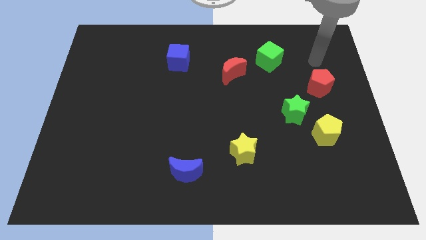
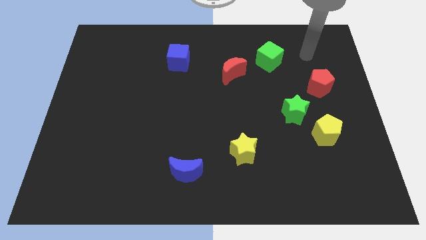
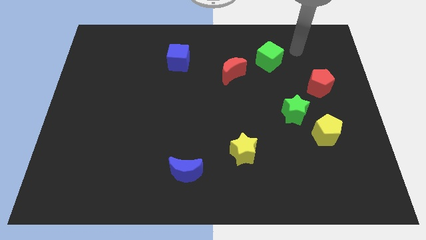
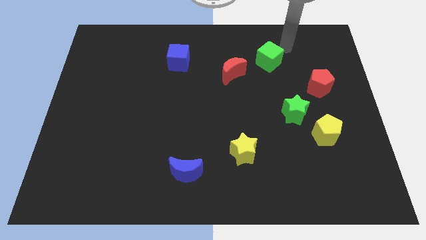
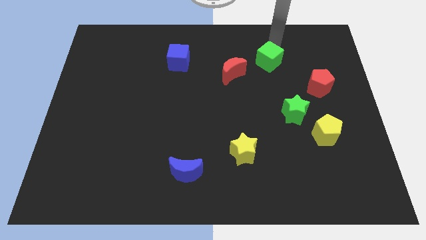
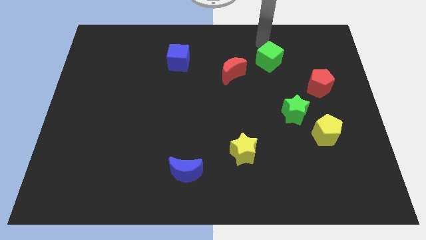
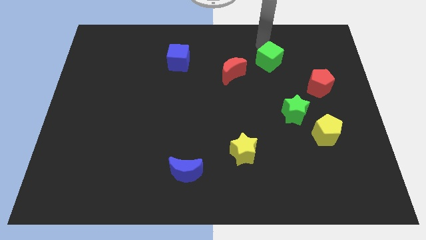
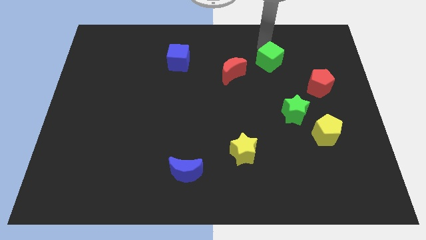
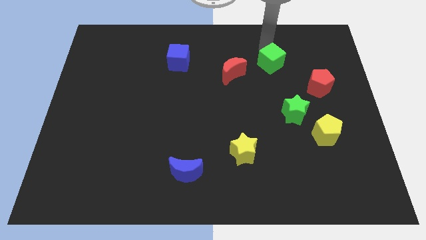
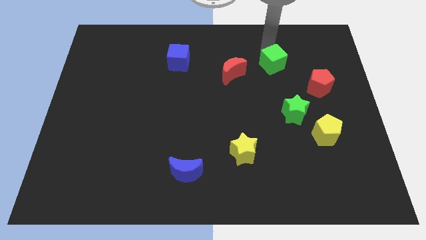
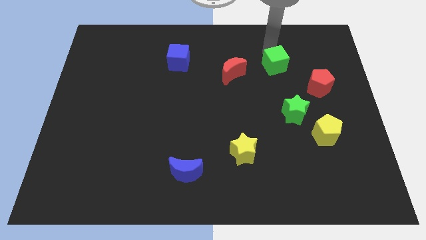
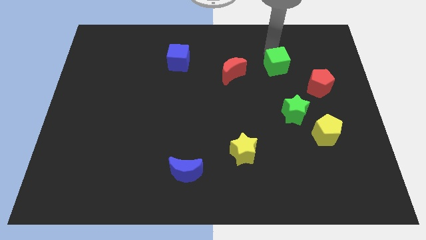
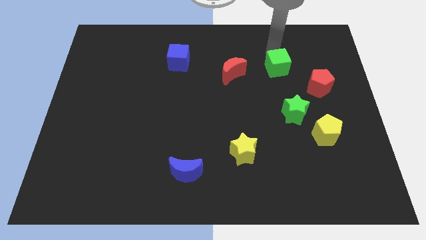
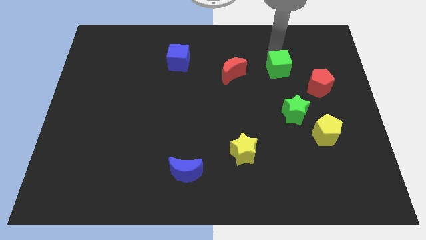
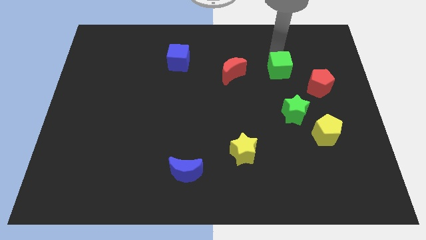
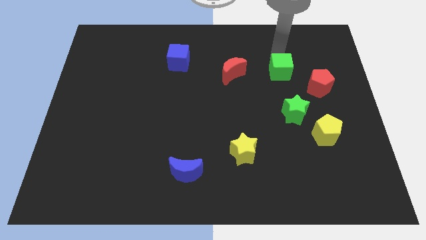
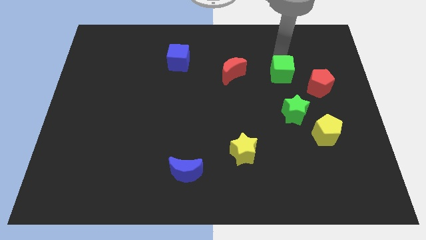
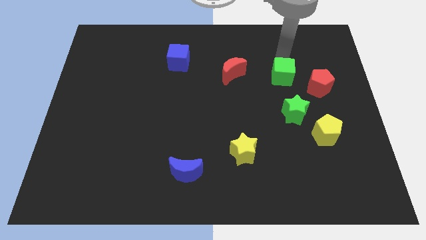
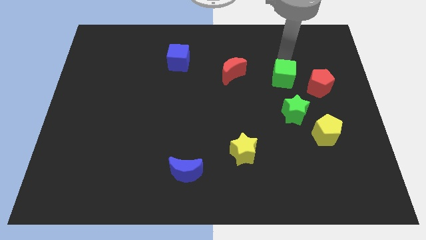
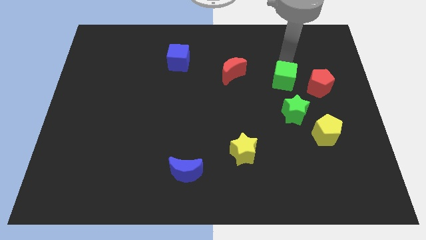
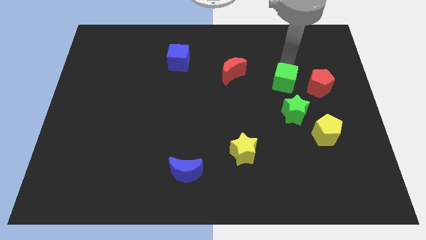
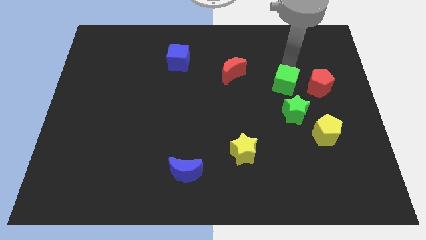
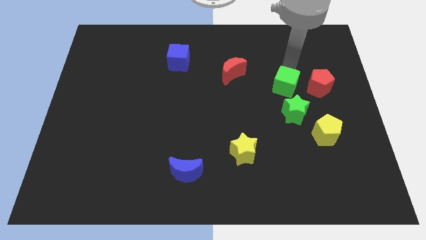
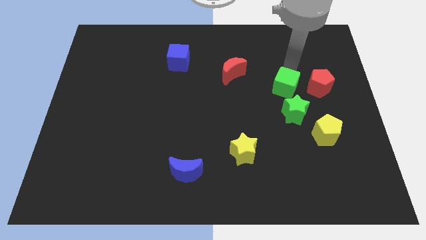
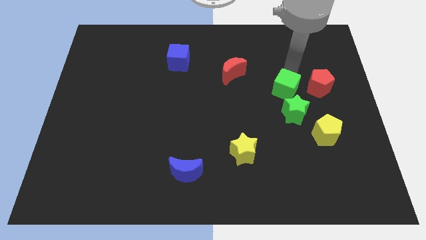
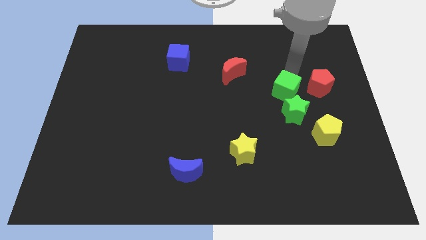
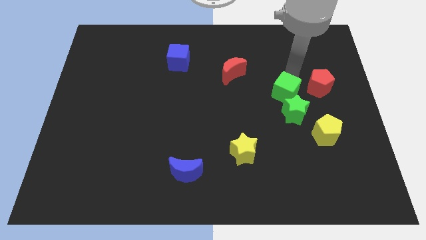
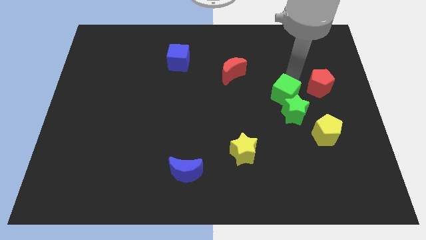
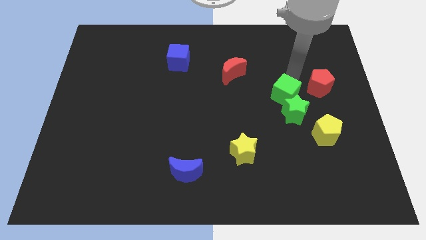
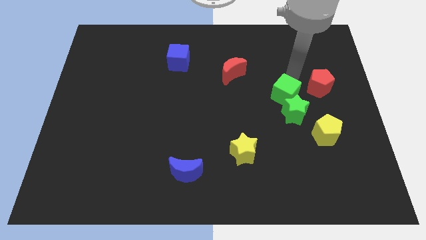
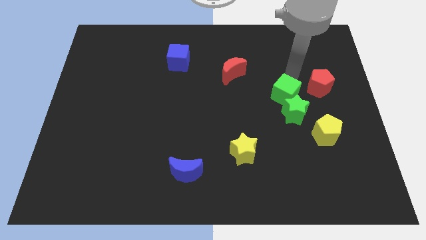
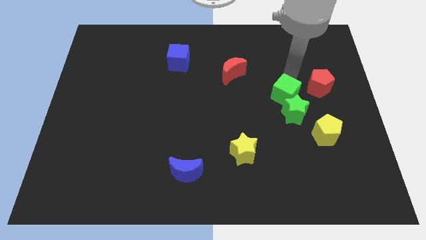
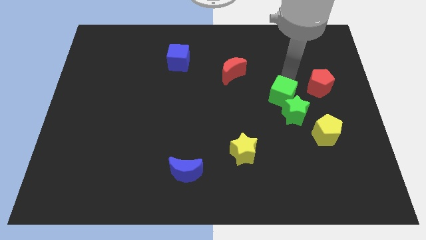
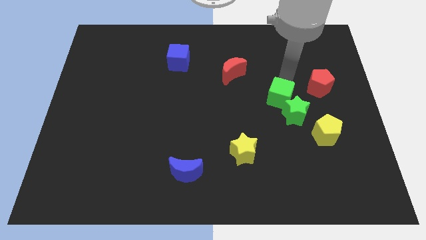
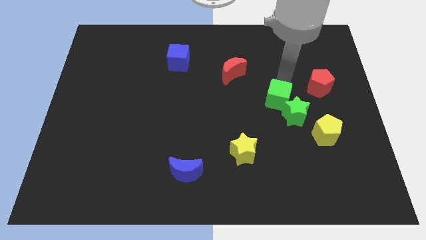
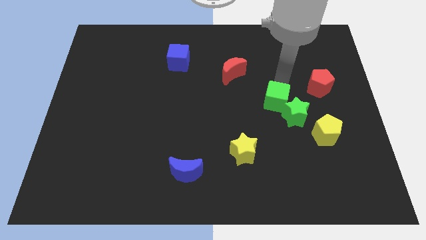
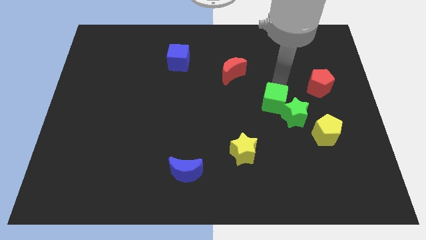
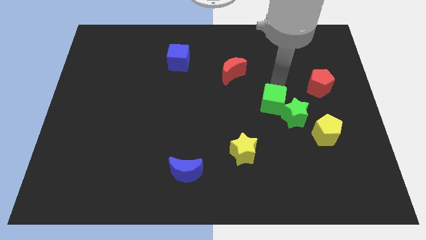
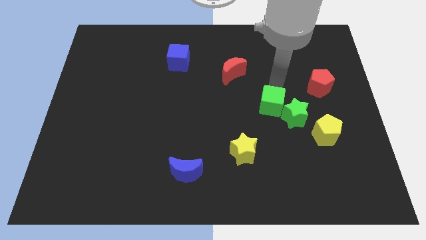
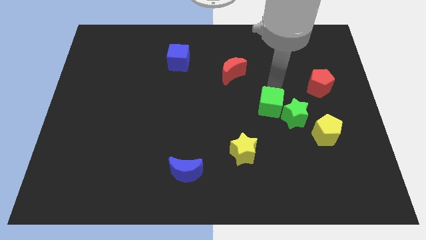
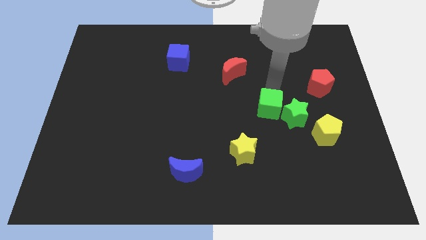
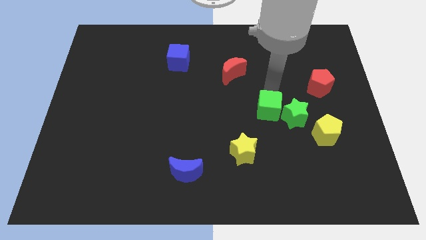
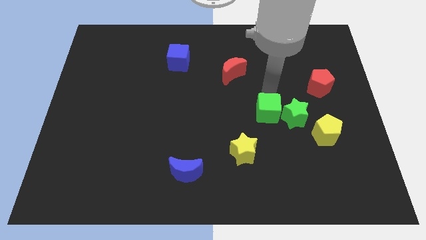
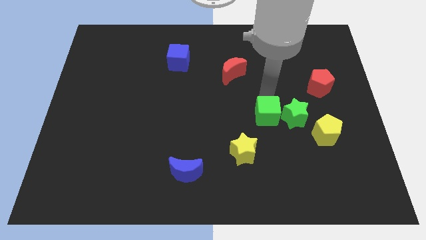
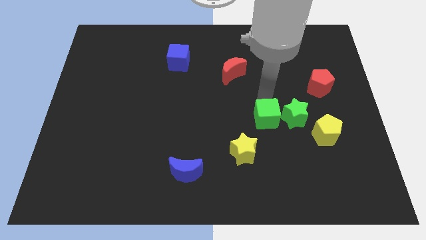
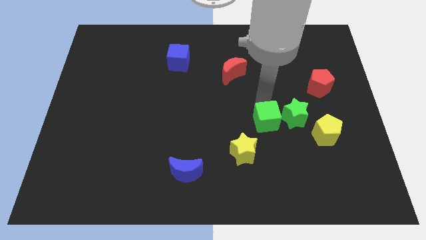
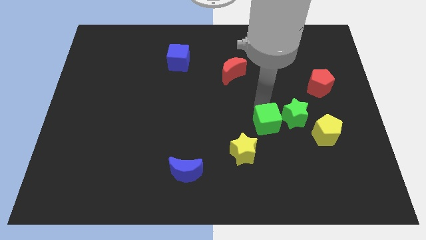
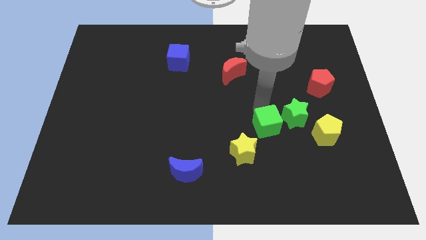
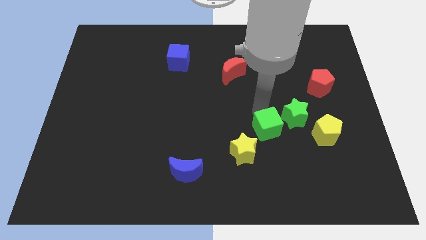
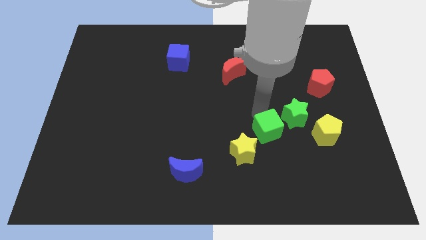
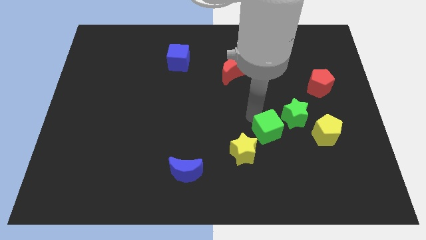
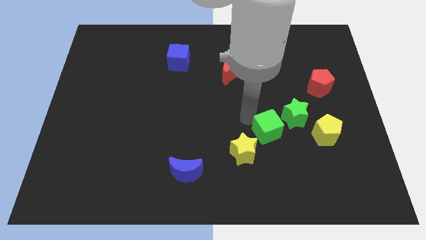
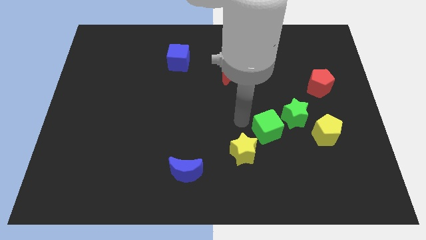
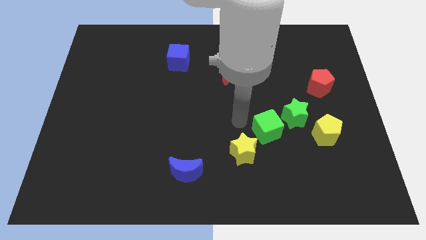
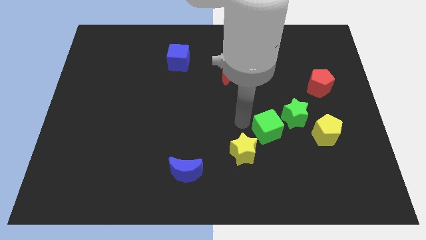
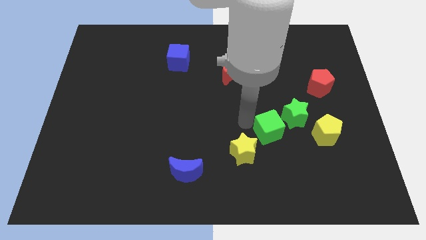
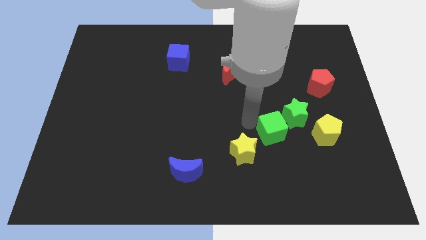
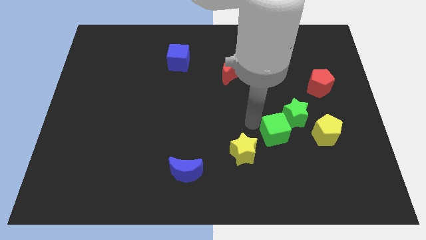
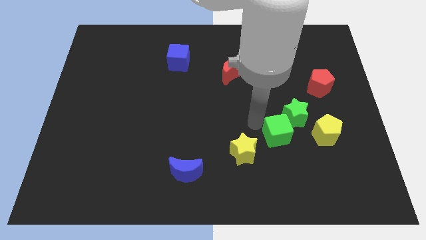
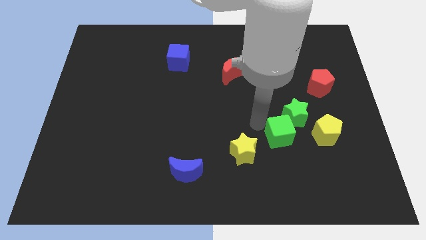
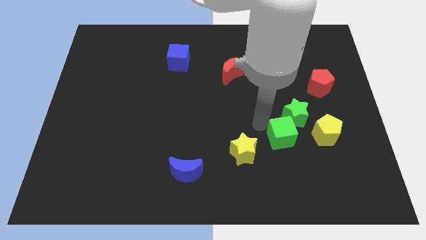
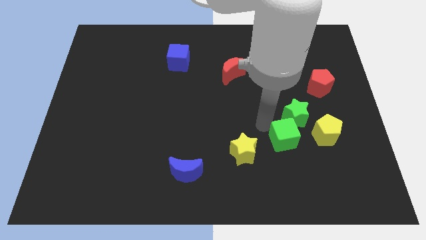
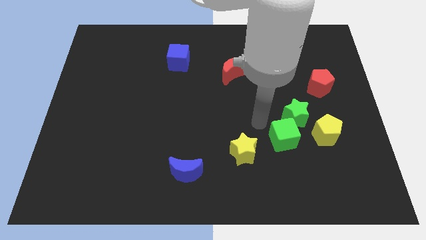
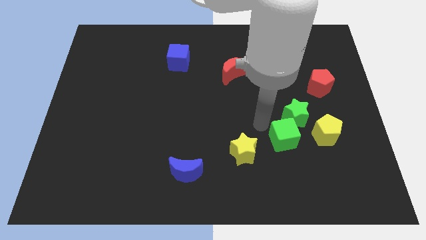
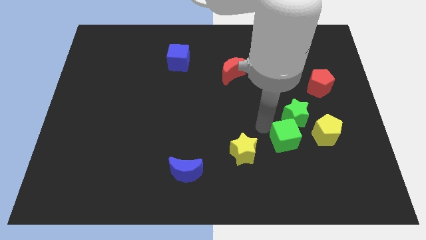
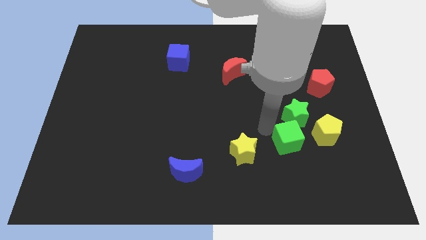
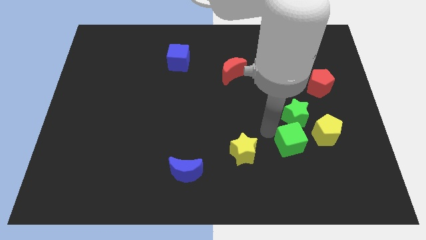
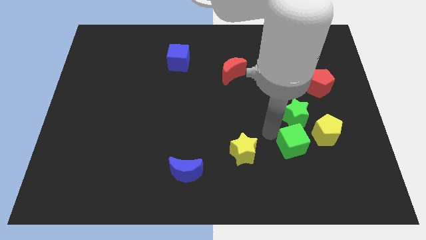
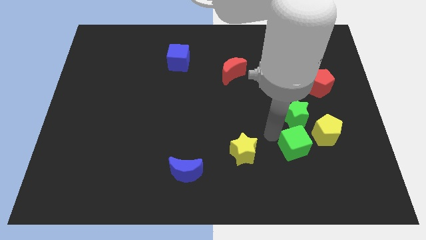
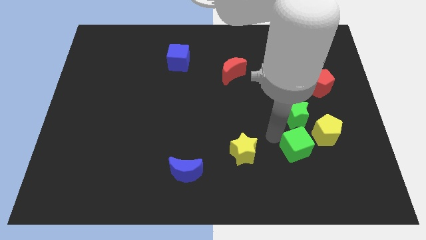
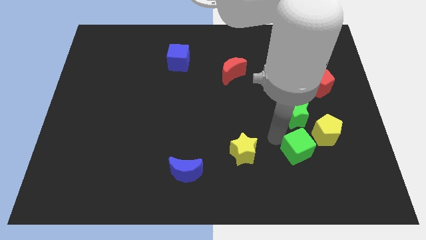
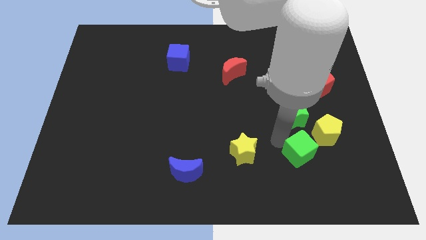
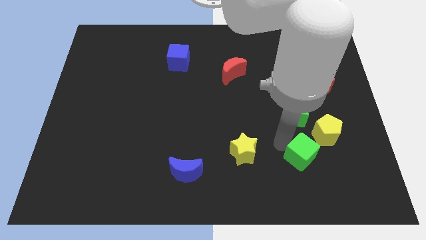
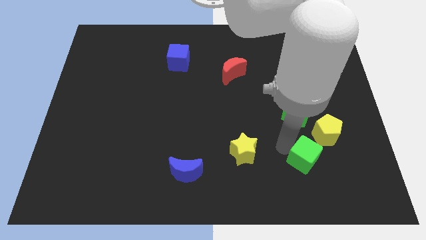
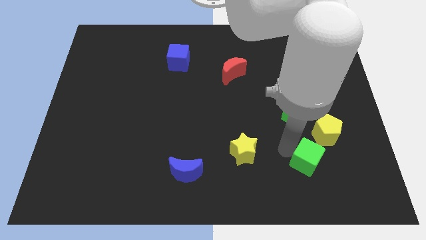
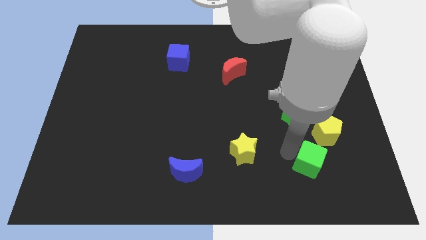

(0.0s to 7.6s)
put the green cube to the bottom side of the yellow pentagon

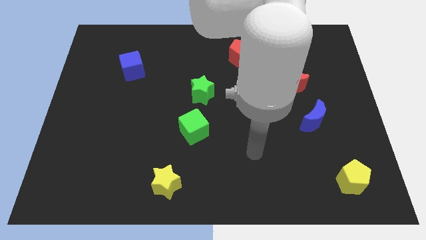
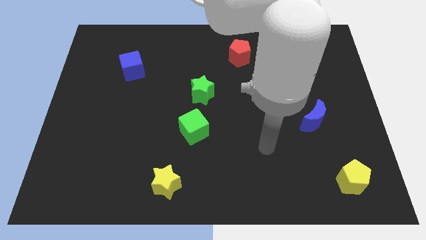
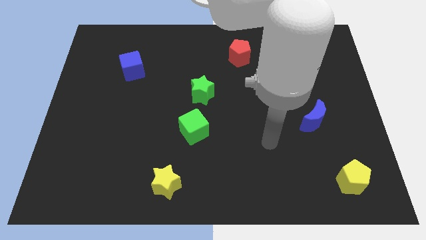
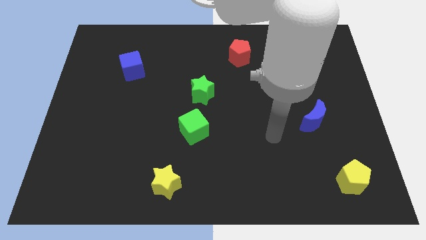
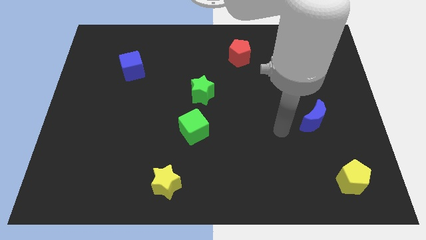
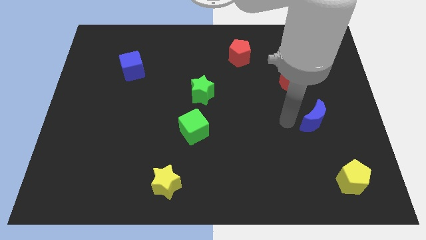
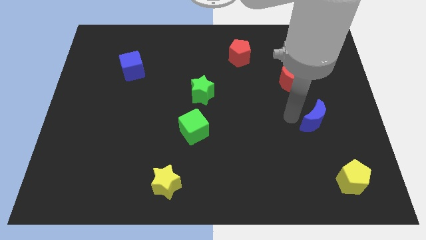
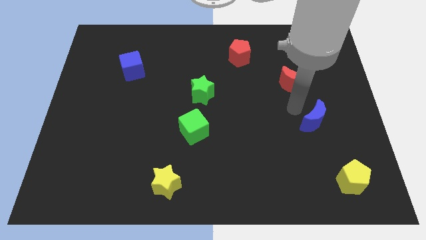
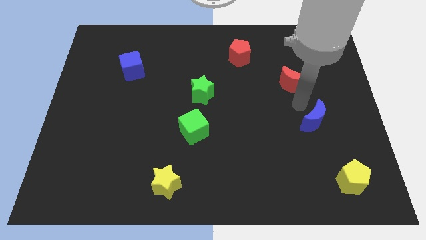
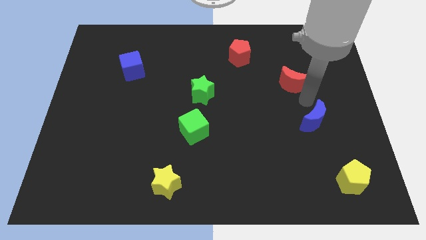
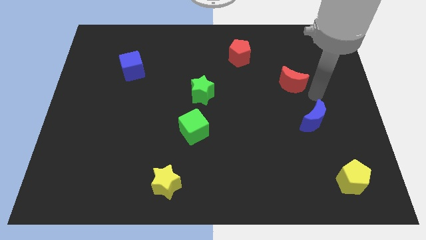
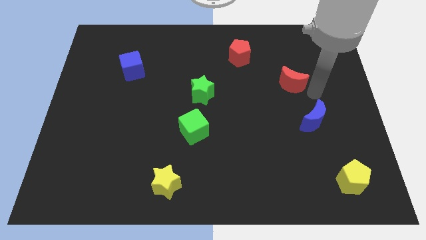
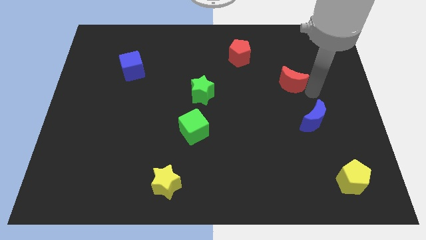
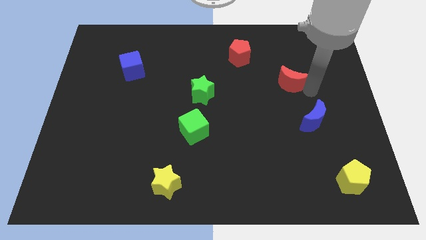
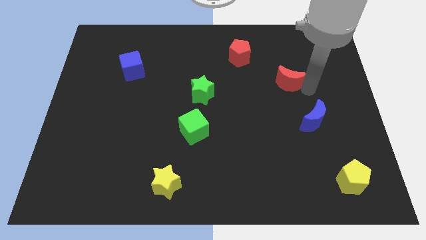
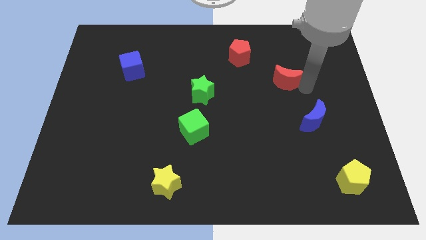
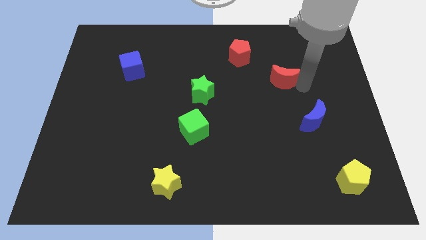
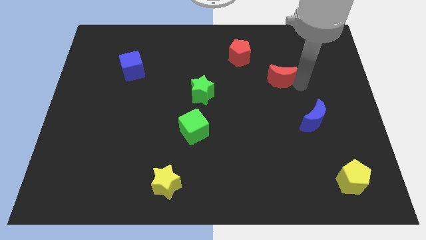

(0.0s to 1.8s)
move the red moon to the bottom right of the red pentagon
